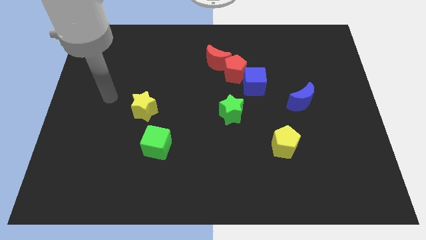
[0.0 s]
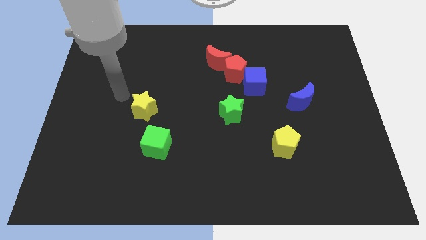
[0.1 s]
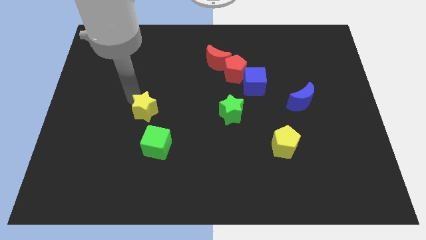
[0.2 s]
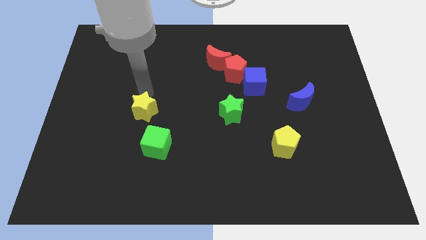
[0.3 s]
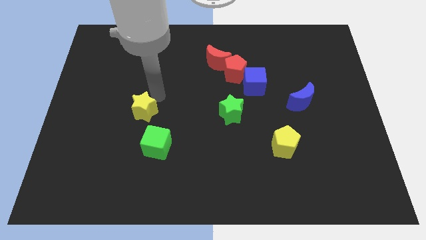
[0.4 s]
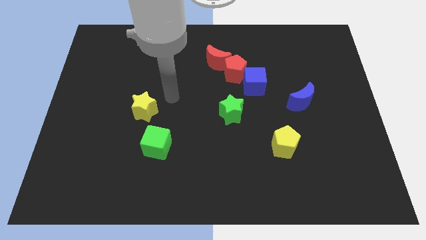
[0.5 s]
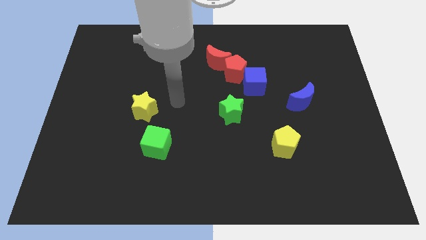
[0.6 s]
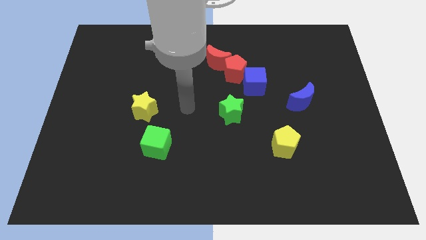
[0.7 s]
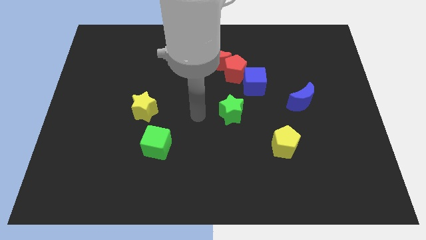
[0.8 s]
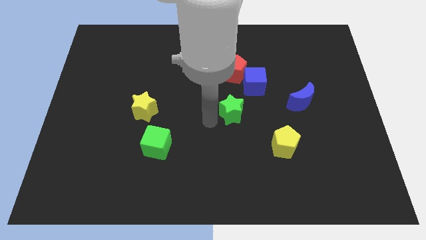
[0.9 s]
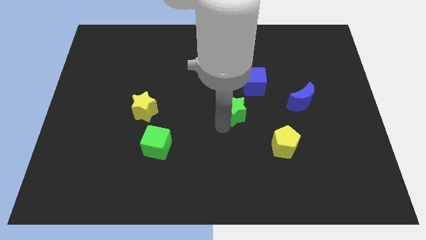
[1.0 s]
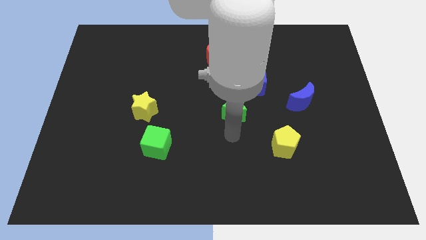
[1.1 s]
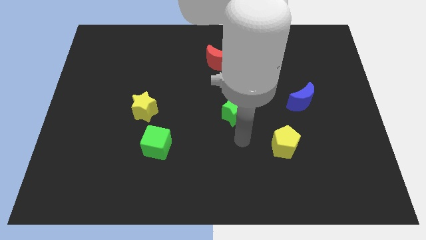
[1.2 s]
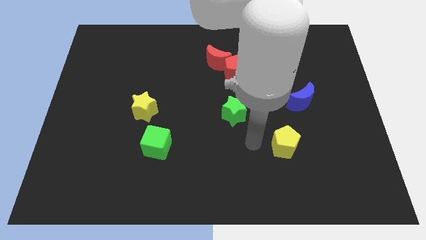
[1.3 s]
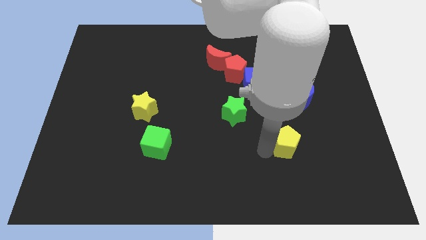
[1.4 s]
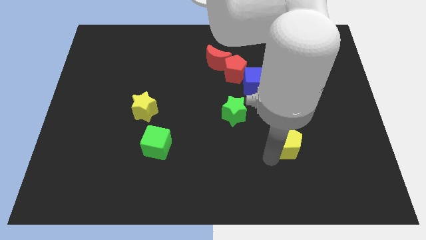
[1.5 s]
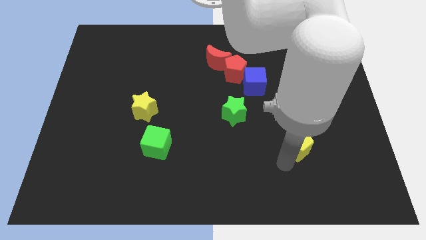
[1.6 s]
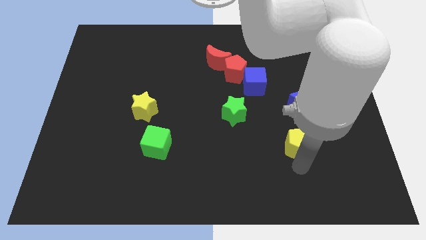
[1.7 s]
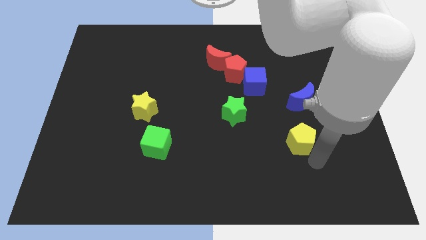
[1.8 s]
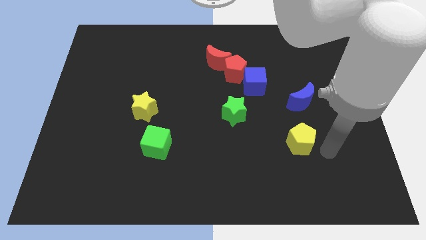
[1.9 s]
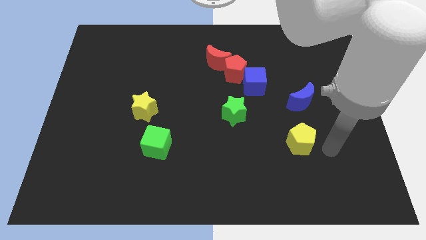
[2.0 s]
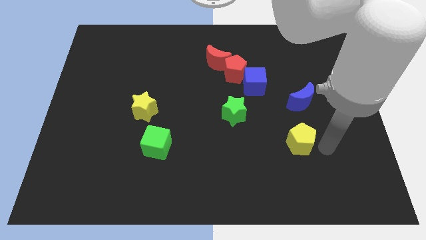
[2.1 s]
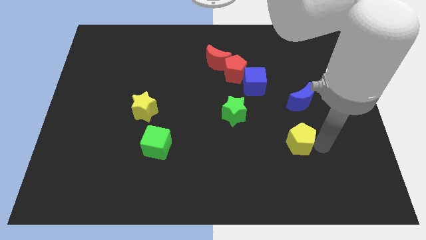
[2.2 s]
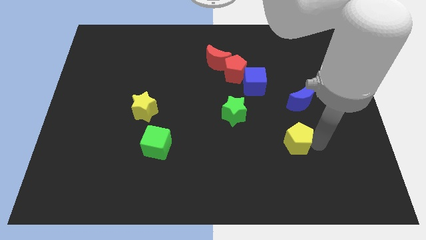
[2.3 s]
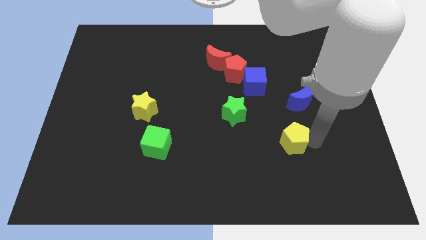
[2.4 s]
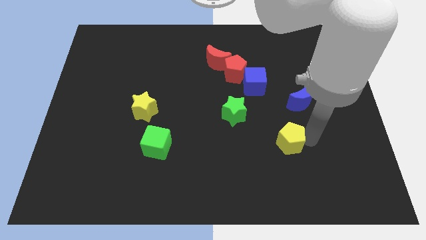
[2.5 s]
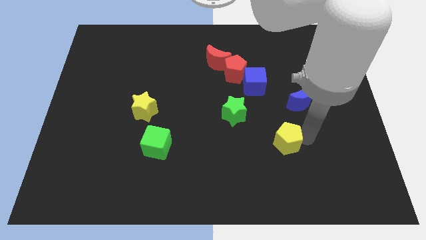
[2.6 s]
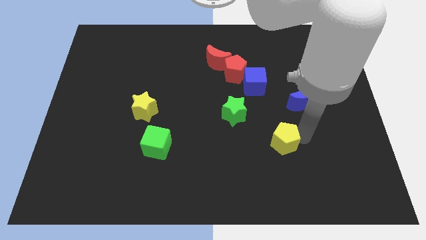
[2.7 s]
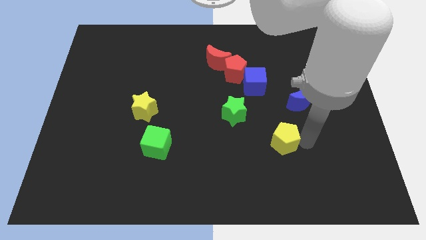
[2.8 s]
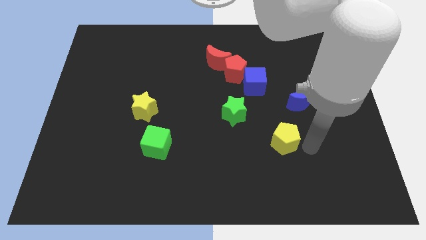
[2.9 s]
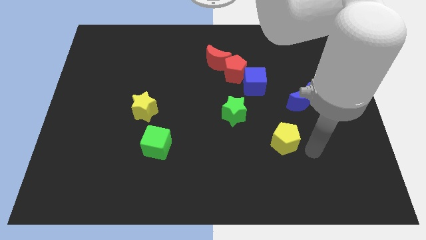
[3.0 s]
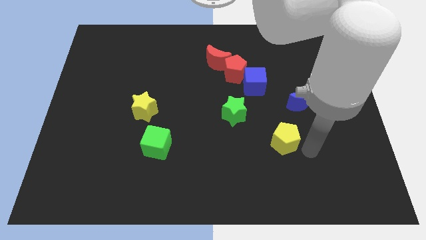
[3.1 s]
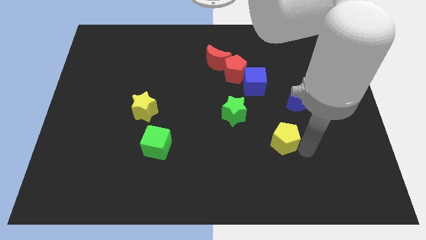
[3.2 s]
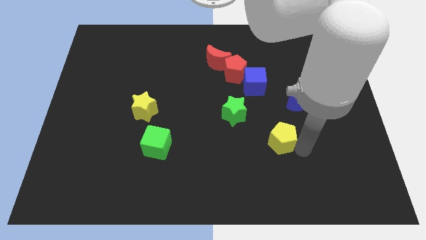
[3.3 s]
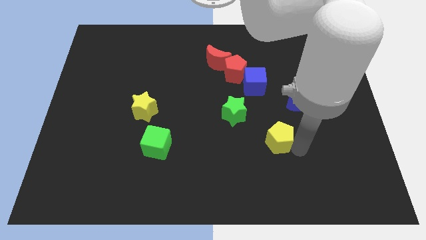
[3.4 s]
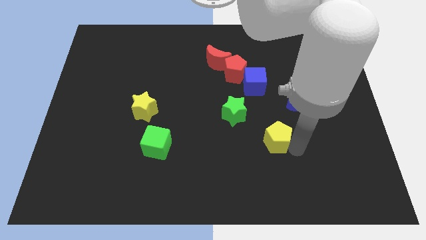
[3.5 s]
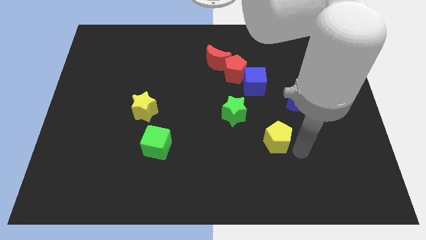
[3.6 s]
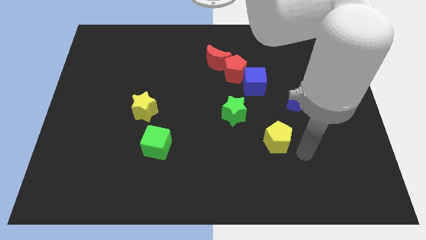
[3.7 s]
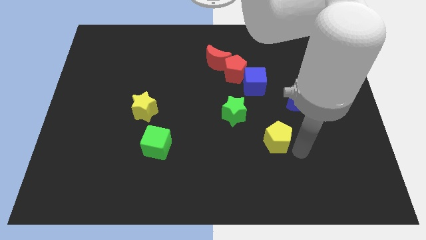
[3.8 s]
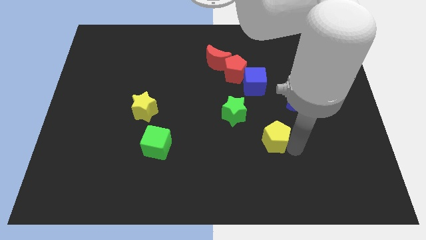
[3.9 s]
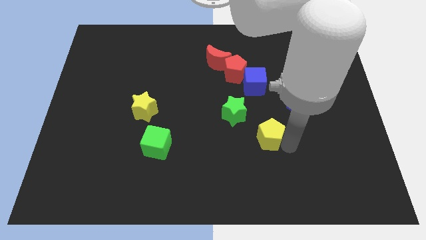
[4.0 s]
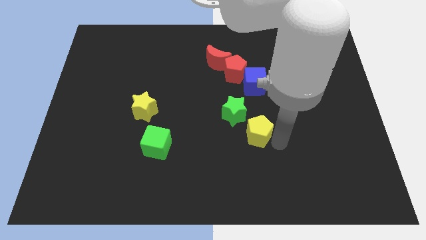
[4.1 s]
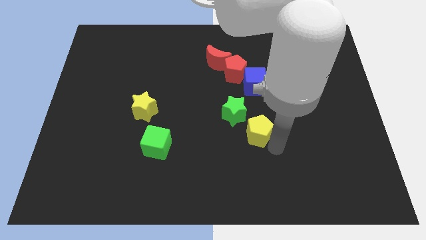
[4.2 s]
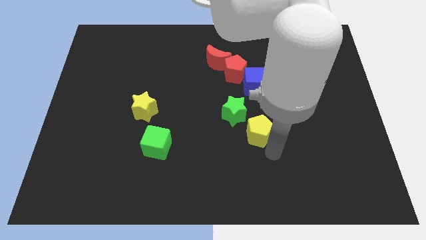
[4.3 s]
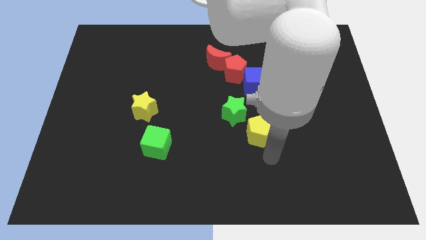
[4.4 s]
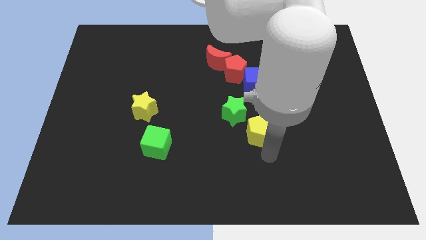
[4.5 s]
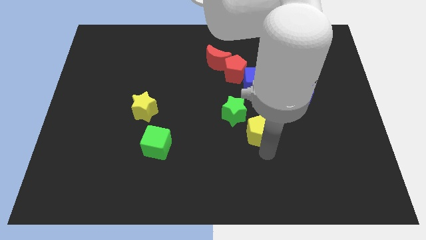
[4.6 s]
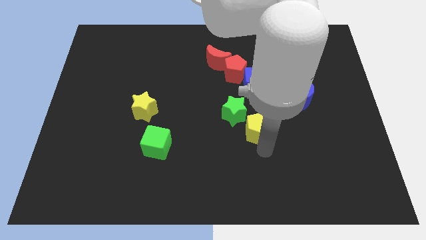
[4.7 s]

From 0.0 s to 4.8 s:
move the yellow pentagon slightly upwards and to the left diagonally

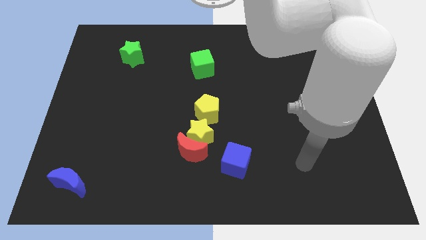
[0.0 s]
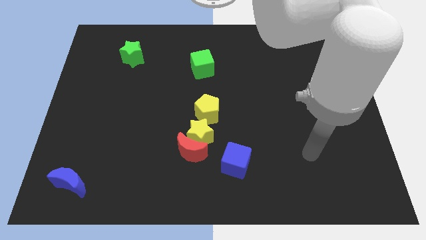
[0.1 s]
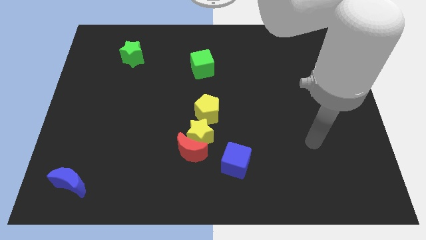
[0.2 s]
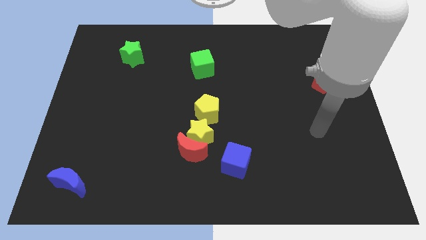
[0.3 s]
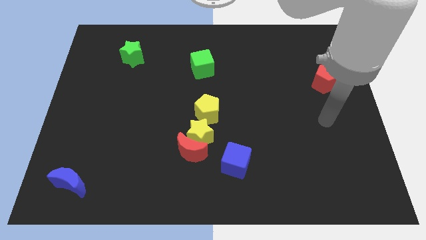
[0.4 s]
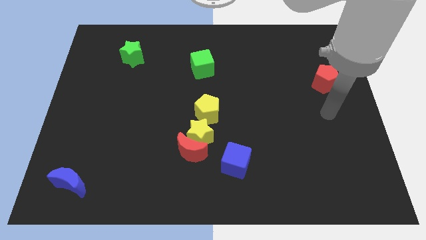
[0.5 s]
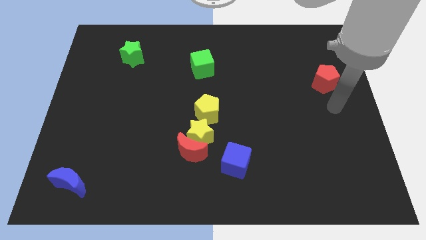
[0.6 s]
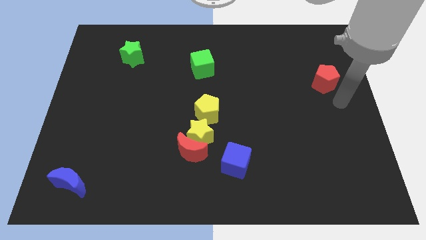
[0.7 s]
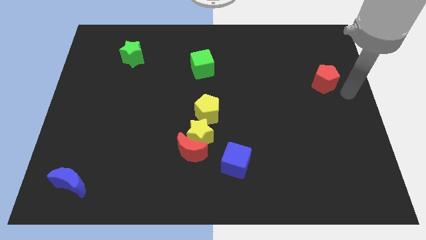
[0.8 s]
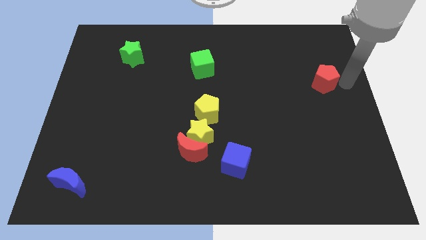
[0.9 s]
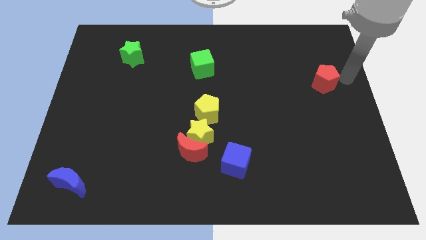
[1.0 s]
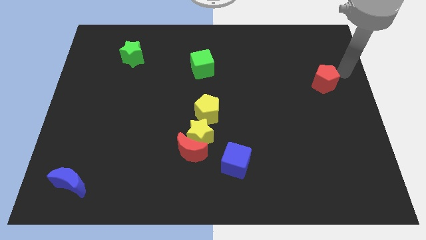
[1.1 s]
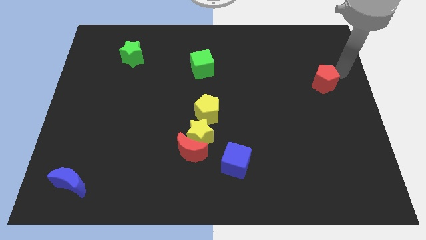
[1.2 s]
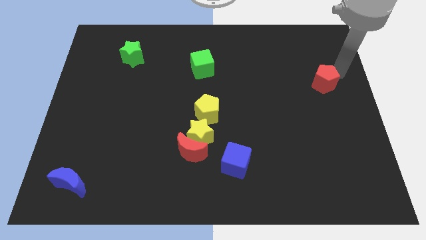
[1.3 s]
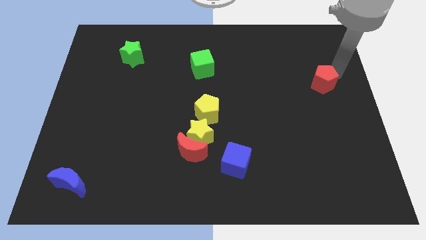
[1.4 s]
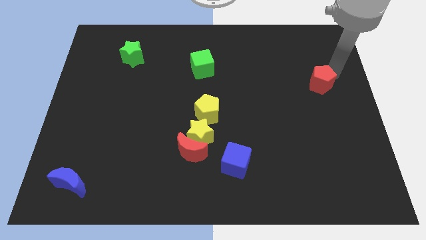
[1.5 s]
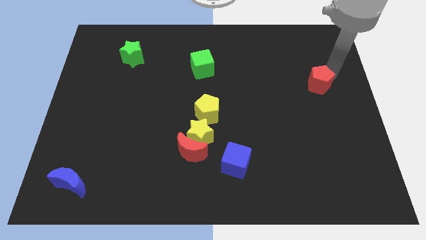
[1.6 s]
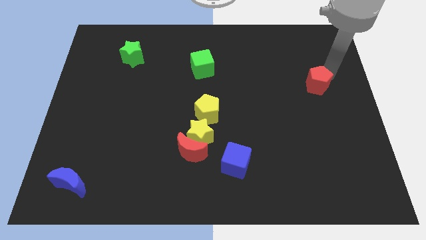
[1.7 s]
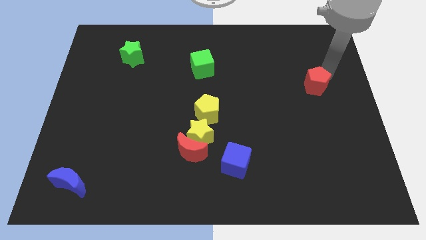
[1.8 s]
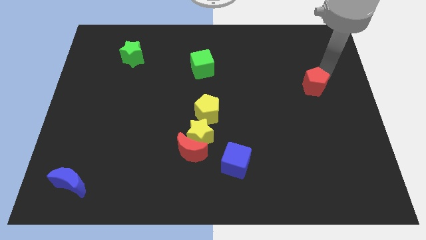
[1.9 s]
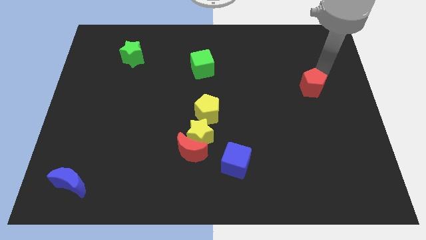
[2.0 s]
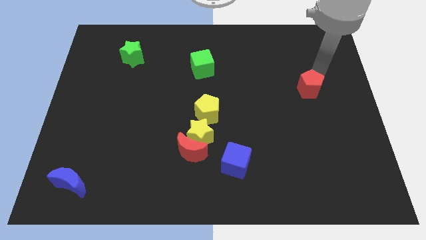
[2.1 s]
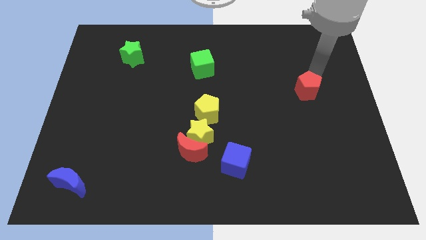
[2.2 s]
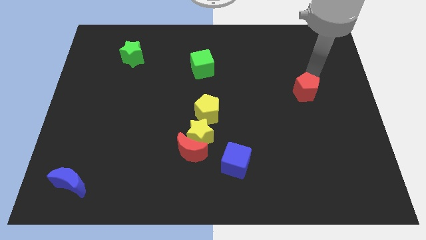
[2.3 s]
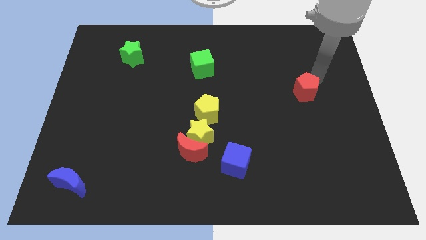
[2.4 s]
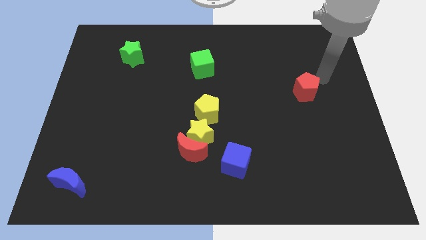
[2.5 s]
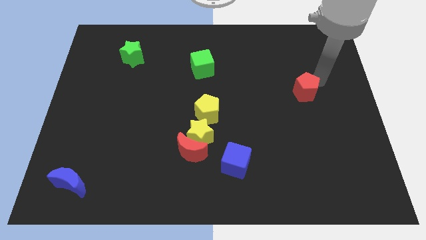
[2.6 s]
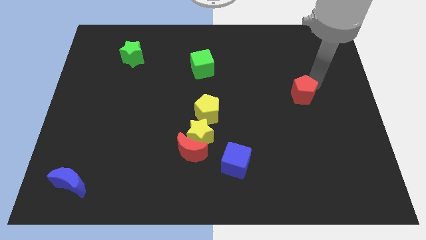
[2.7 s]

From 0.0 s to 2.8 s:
move the red pentagon down and to the left a bit

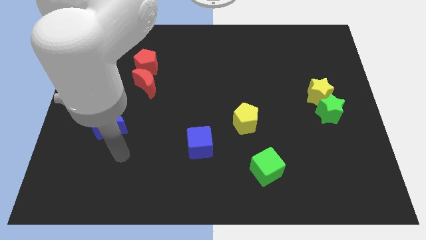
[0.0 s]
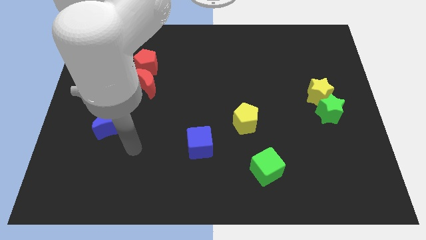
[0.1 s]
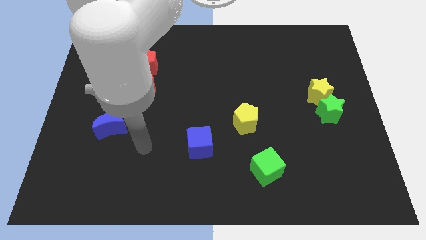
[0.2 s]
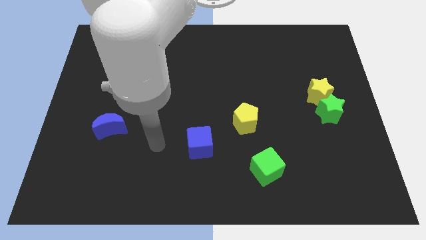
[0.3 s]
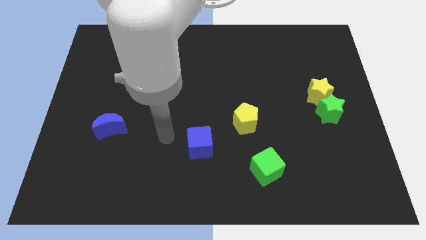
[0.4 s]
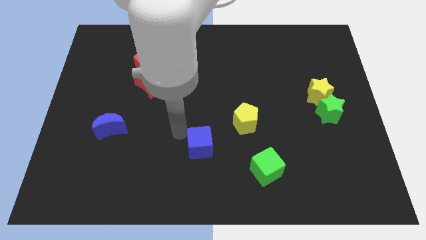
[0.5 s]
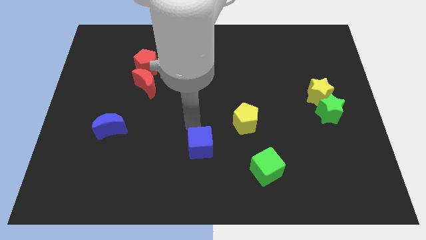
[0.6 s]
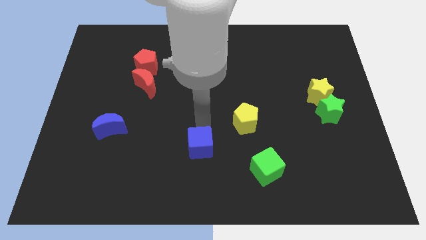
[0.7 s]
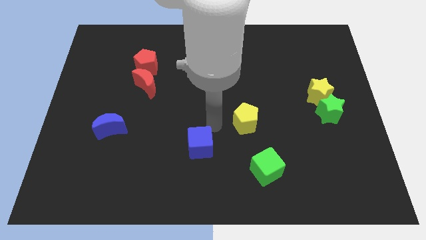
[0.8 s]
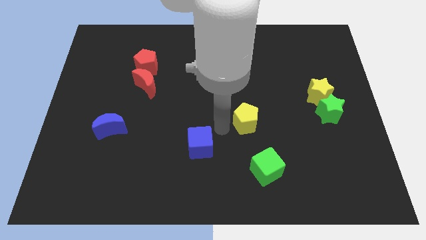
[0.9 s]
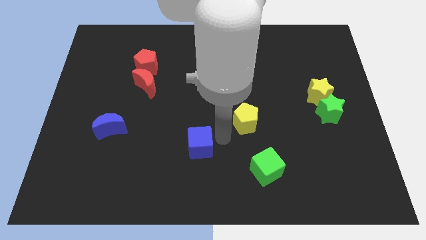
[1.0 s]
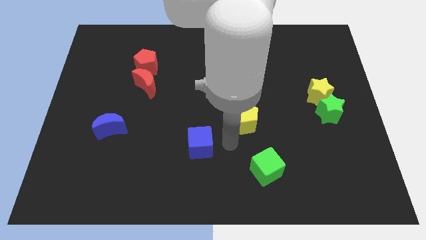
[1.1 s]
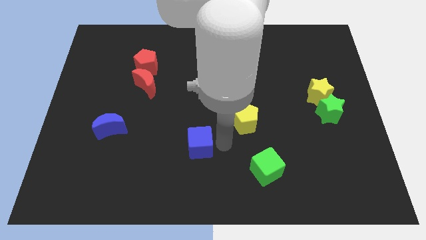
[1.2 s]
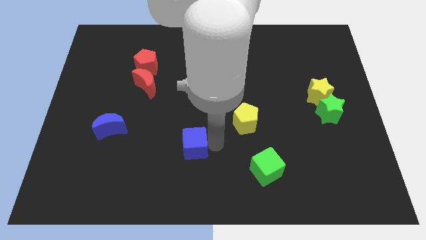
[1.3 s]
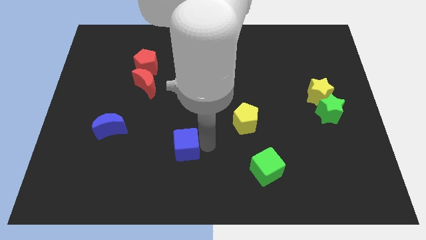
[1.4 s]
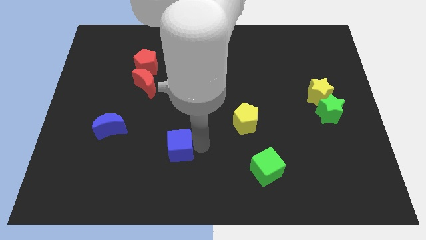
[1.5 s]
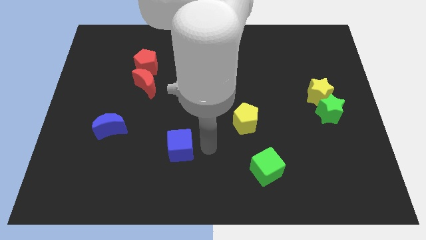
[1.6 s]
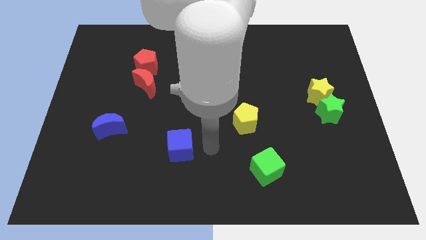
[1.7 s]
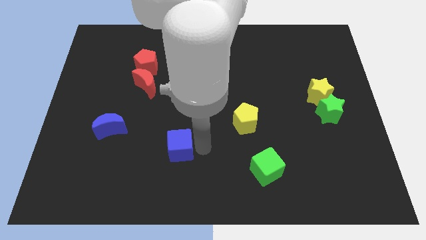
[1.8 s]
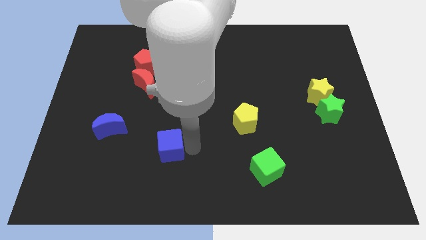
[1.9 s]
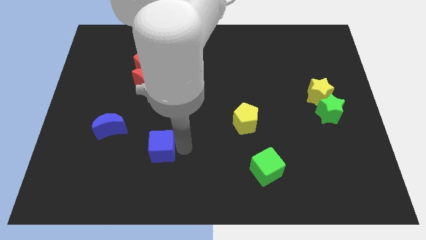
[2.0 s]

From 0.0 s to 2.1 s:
slightly push the blue cube left
